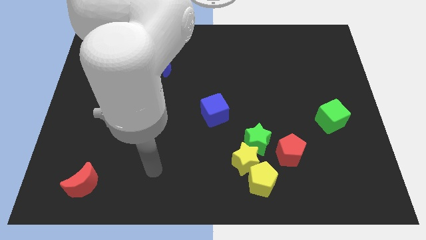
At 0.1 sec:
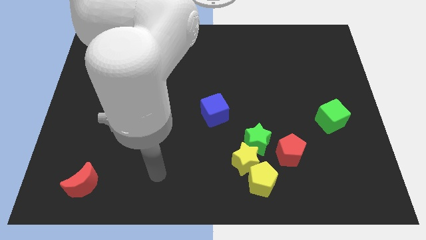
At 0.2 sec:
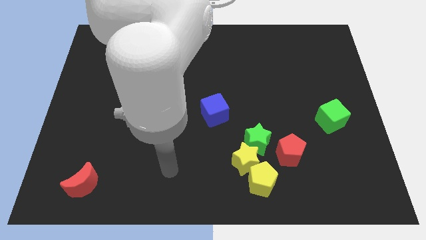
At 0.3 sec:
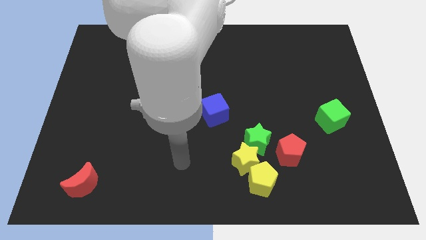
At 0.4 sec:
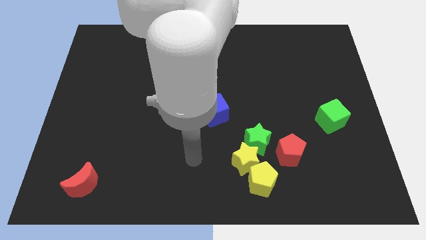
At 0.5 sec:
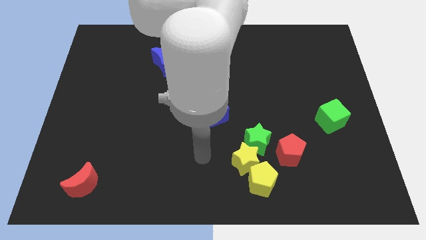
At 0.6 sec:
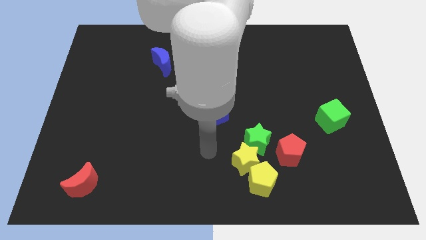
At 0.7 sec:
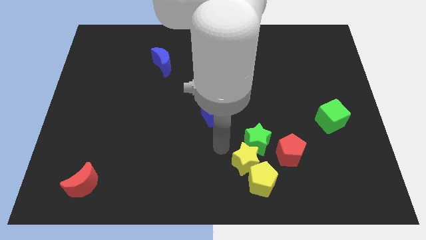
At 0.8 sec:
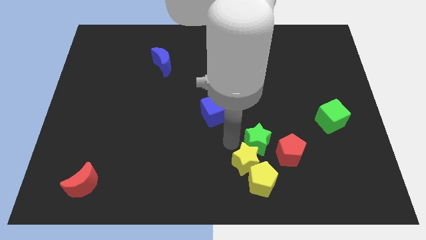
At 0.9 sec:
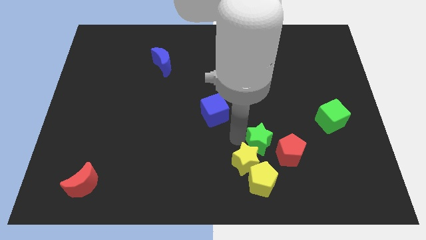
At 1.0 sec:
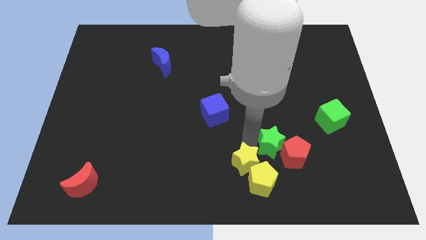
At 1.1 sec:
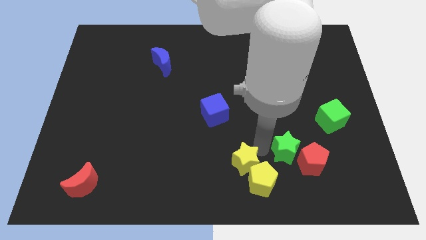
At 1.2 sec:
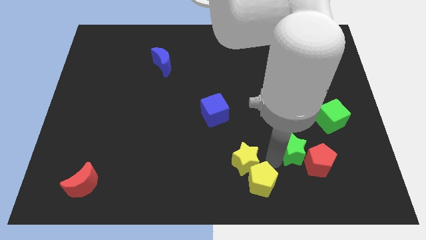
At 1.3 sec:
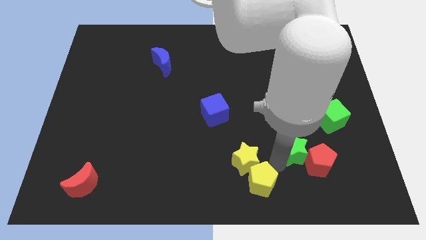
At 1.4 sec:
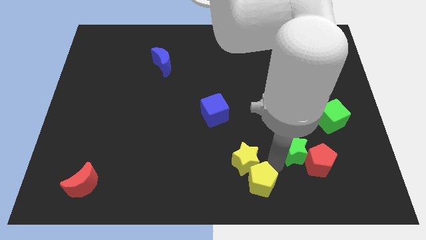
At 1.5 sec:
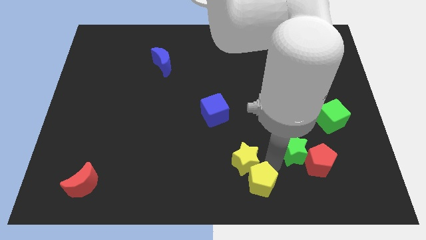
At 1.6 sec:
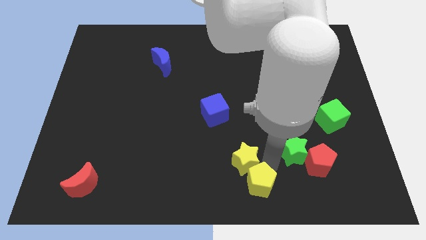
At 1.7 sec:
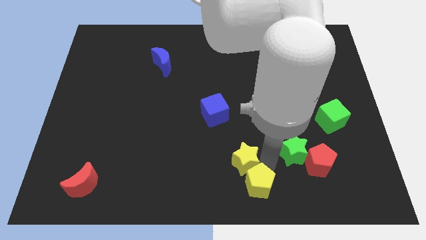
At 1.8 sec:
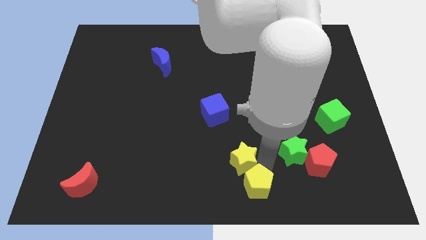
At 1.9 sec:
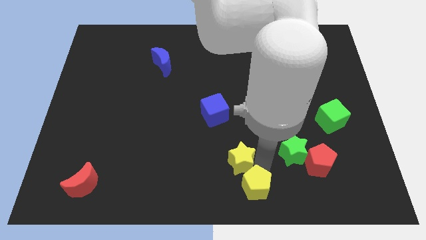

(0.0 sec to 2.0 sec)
move the yellow star away from the group of blocks

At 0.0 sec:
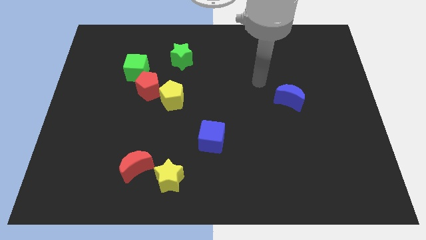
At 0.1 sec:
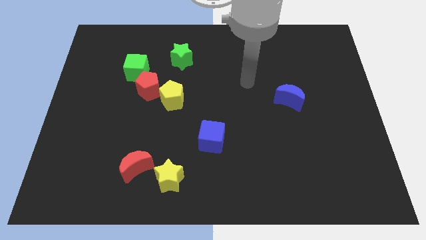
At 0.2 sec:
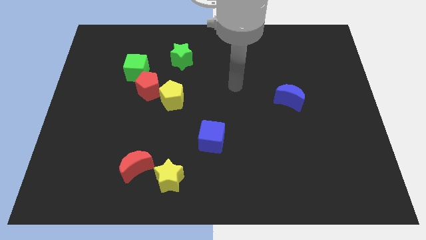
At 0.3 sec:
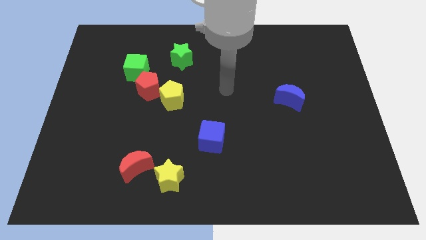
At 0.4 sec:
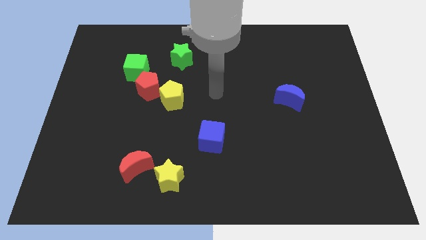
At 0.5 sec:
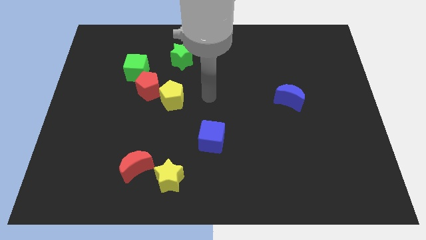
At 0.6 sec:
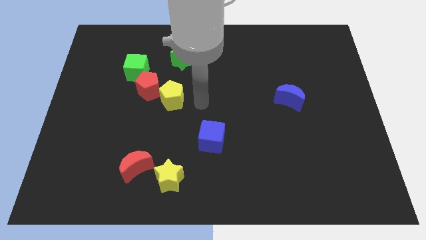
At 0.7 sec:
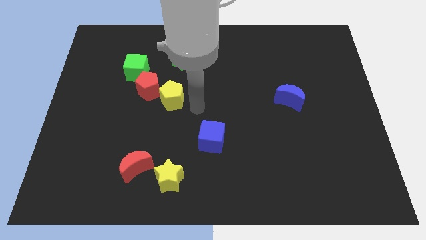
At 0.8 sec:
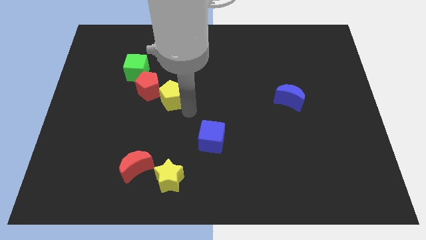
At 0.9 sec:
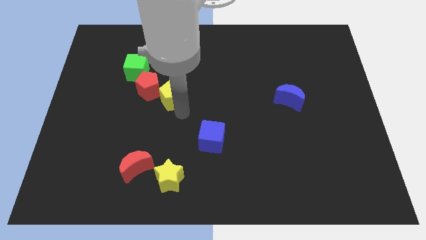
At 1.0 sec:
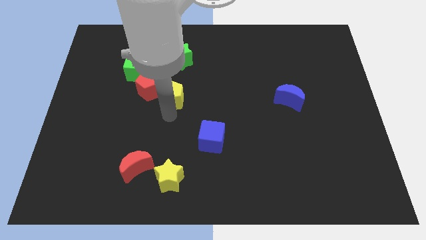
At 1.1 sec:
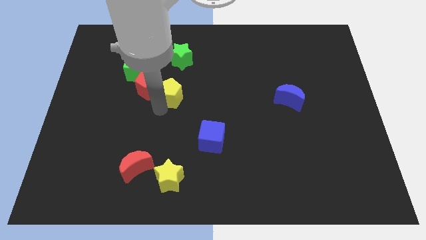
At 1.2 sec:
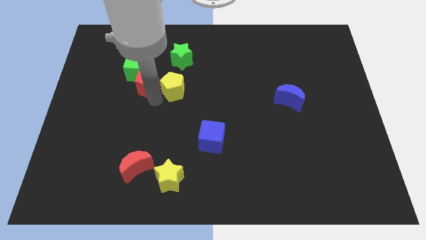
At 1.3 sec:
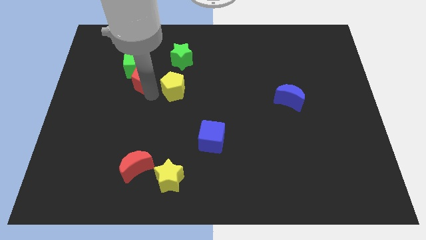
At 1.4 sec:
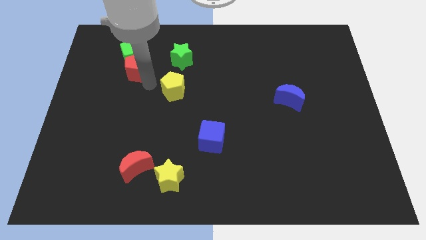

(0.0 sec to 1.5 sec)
pull the yellow pentagon apart from the red pentagon

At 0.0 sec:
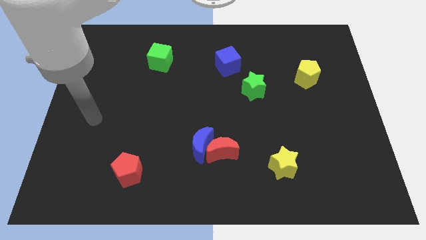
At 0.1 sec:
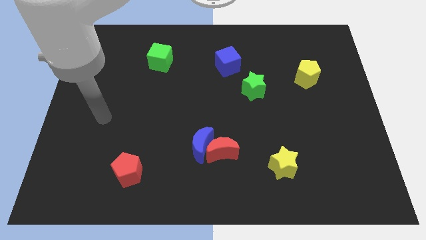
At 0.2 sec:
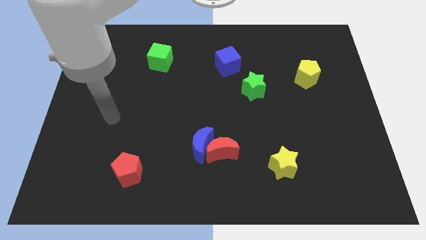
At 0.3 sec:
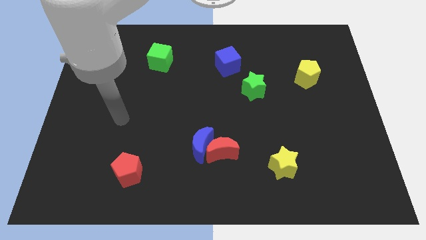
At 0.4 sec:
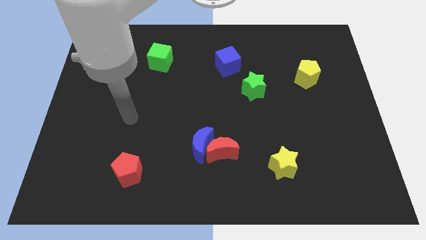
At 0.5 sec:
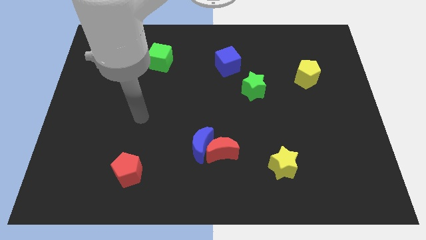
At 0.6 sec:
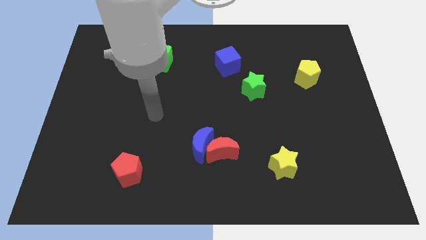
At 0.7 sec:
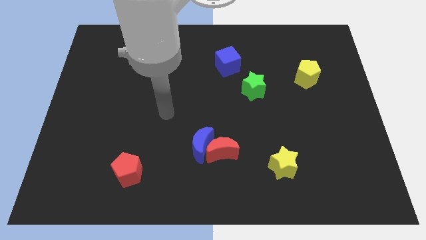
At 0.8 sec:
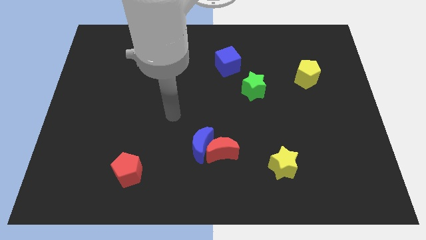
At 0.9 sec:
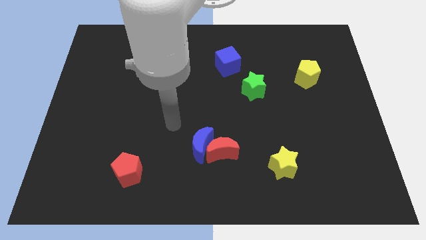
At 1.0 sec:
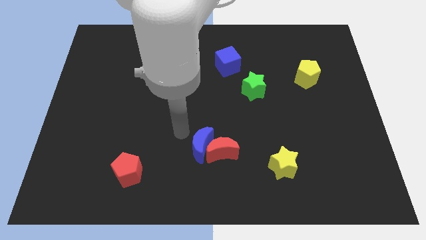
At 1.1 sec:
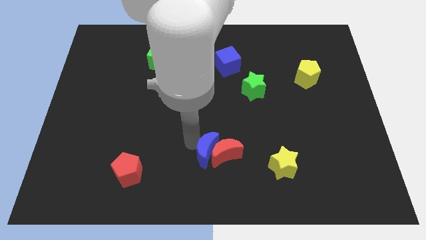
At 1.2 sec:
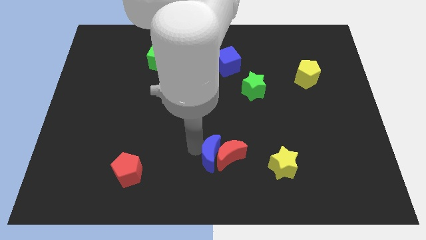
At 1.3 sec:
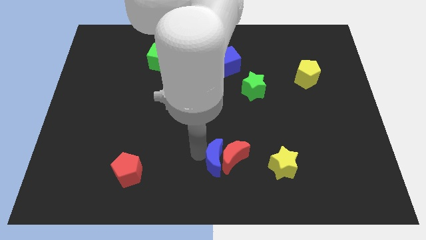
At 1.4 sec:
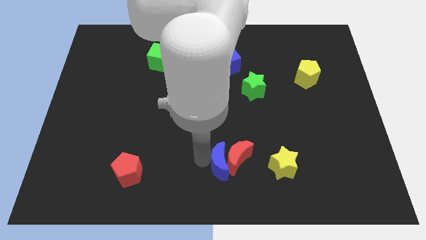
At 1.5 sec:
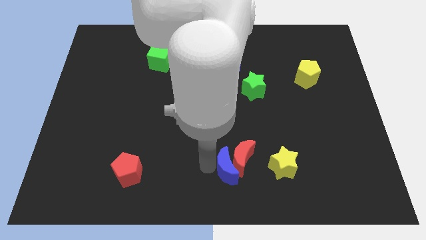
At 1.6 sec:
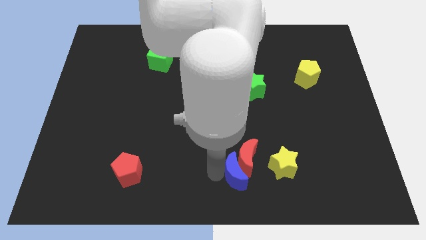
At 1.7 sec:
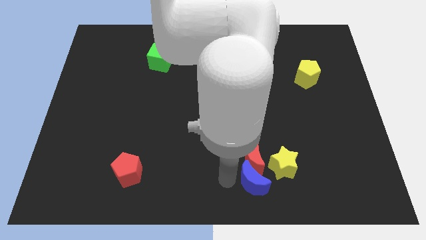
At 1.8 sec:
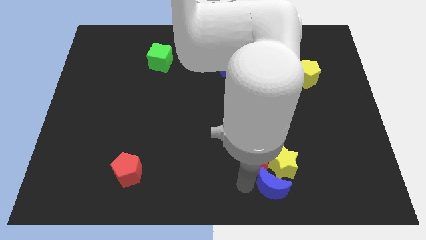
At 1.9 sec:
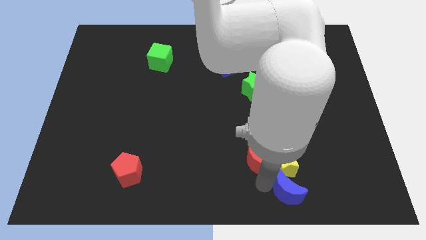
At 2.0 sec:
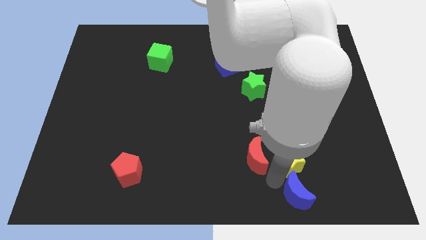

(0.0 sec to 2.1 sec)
move the red moon away from the blue moon

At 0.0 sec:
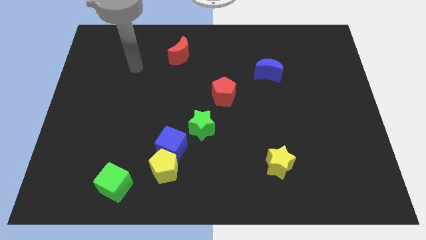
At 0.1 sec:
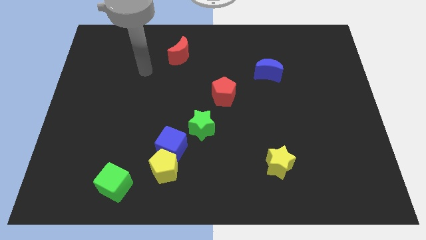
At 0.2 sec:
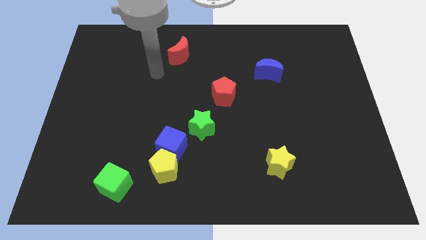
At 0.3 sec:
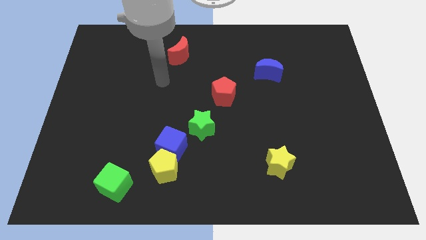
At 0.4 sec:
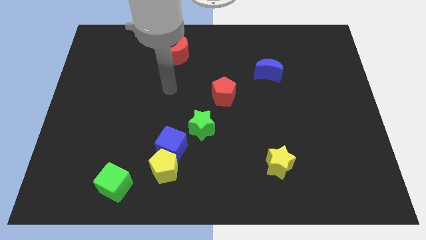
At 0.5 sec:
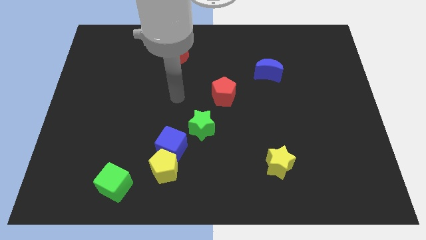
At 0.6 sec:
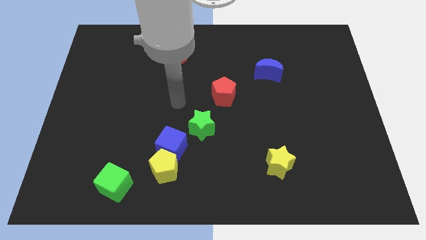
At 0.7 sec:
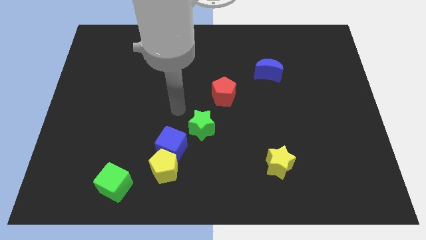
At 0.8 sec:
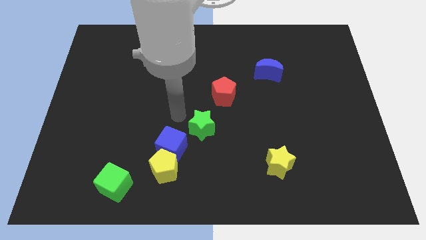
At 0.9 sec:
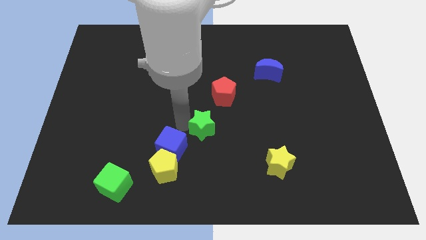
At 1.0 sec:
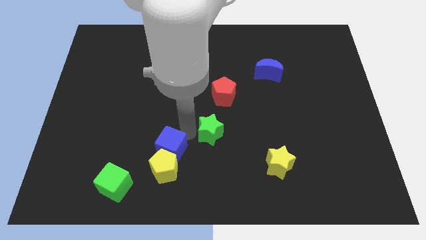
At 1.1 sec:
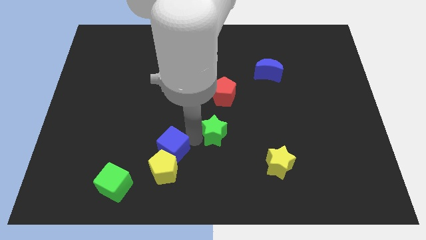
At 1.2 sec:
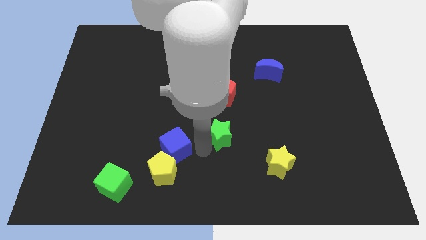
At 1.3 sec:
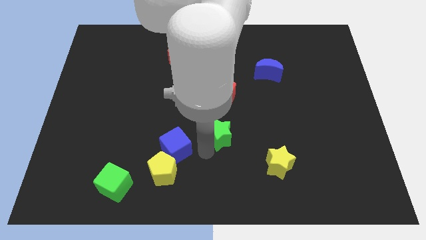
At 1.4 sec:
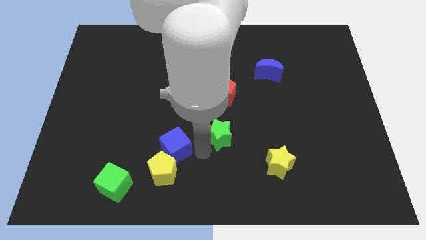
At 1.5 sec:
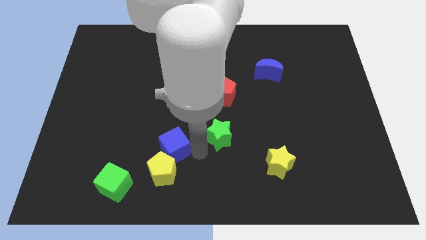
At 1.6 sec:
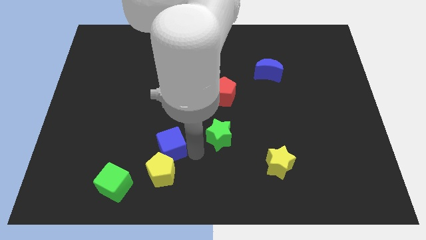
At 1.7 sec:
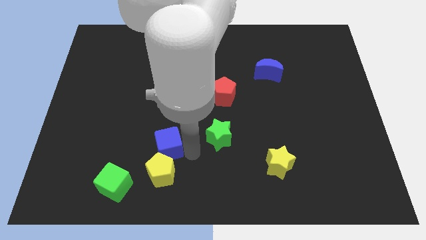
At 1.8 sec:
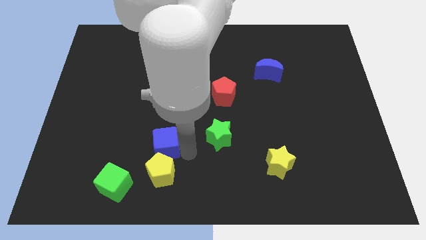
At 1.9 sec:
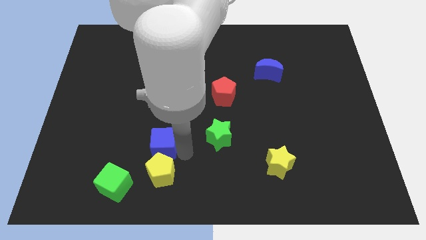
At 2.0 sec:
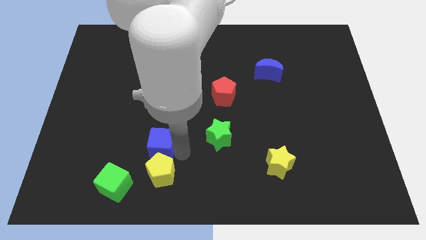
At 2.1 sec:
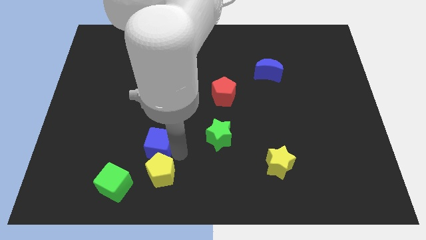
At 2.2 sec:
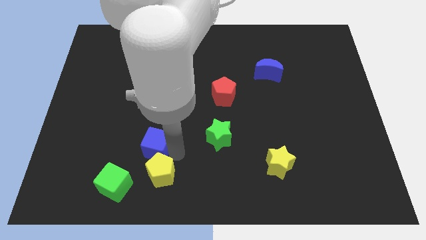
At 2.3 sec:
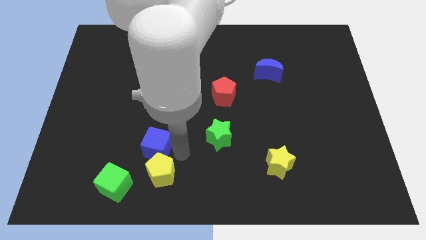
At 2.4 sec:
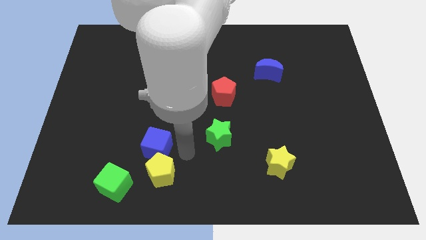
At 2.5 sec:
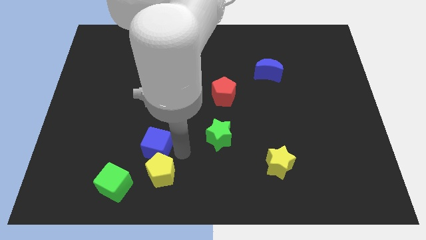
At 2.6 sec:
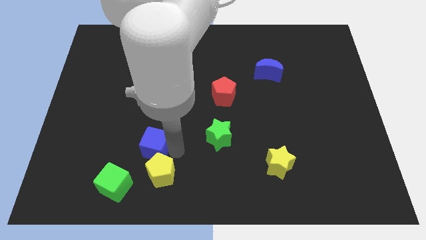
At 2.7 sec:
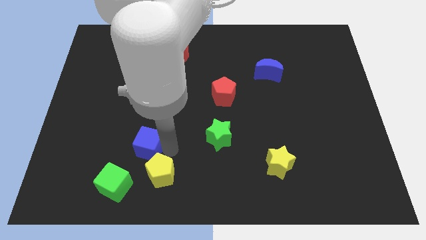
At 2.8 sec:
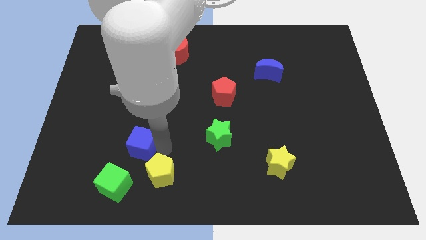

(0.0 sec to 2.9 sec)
move the blue cube away from the yellow pentagon and green star

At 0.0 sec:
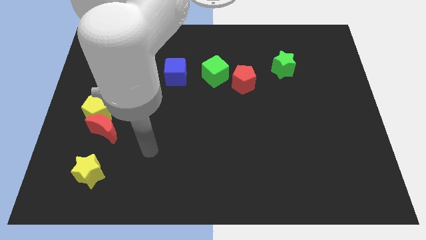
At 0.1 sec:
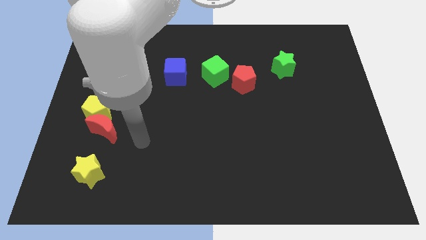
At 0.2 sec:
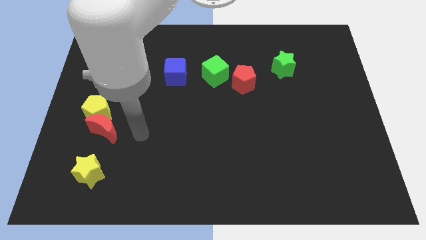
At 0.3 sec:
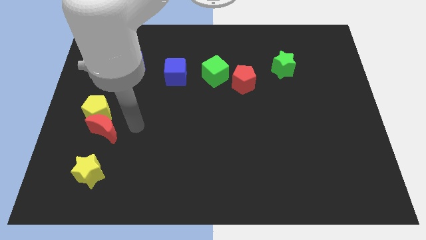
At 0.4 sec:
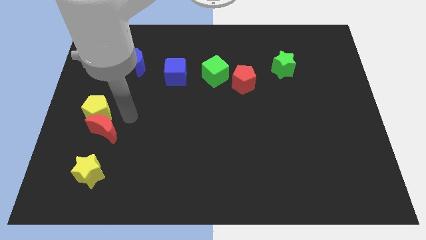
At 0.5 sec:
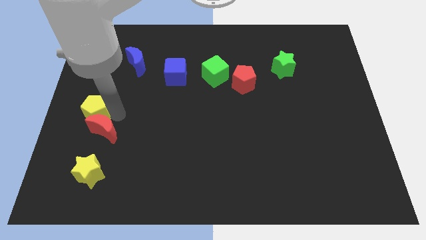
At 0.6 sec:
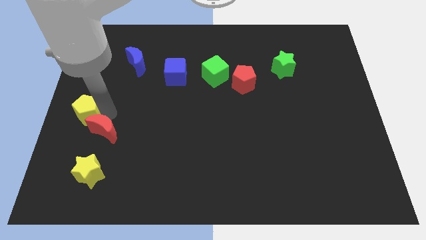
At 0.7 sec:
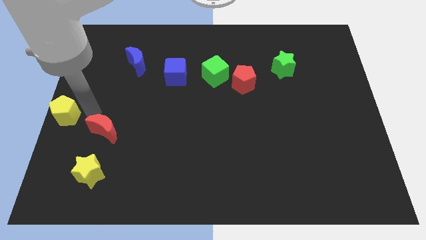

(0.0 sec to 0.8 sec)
move the red moon away from the yellow pentagon
